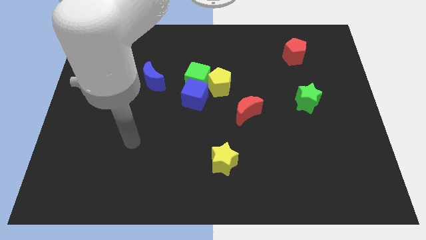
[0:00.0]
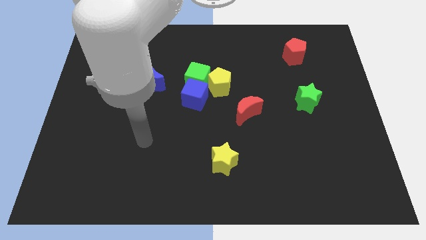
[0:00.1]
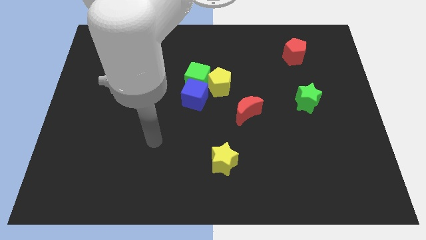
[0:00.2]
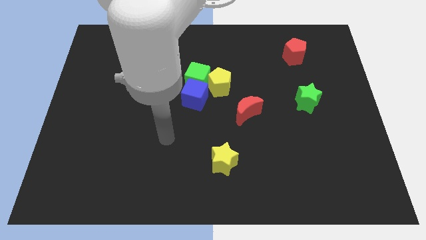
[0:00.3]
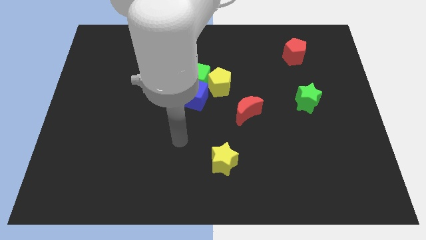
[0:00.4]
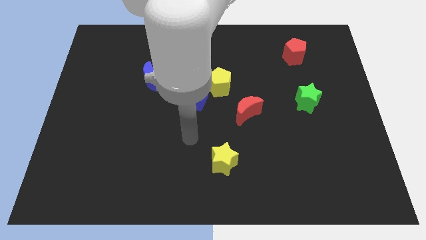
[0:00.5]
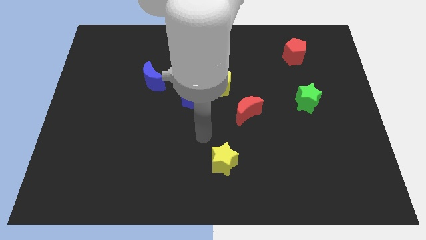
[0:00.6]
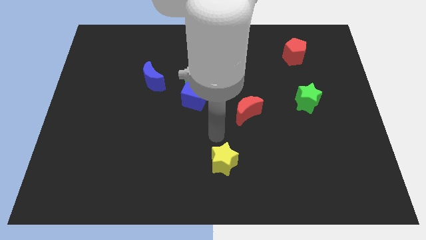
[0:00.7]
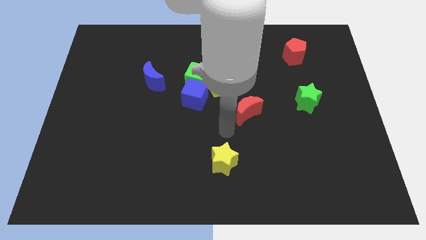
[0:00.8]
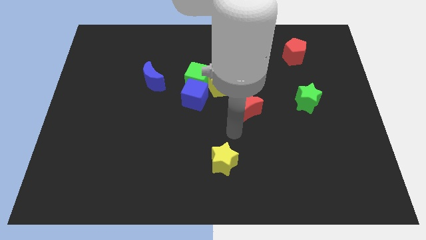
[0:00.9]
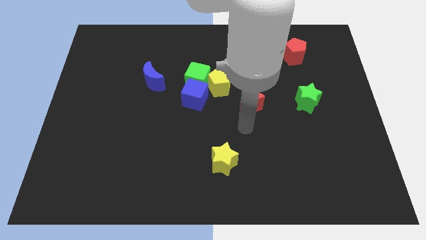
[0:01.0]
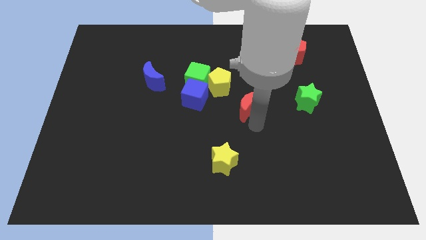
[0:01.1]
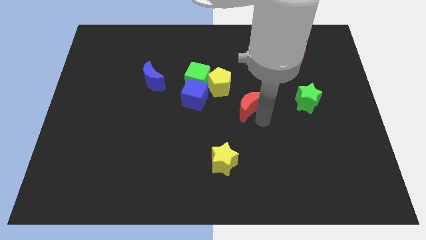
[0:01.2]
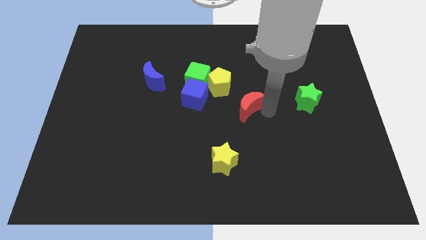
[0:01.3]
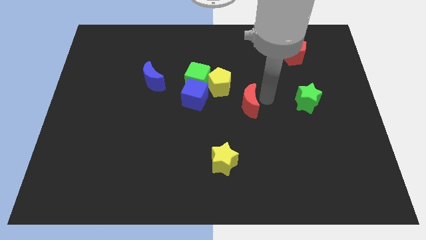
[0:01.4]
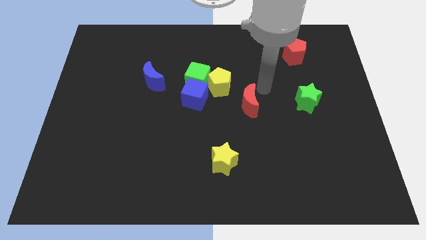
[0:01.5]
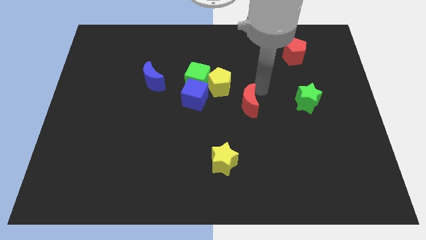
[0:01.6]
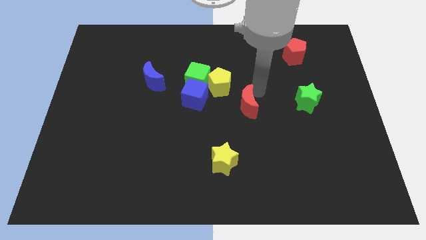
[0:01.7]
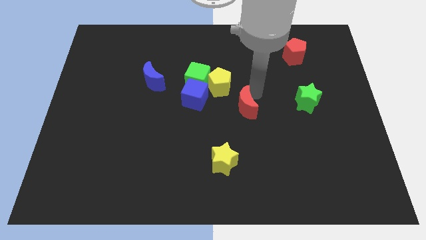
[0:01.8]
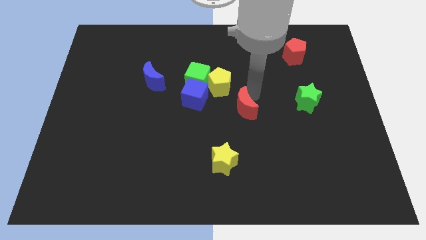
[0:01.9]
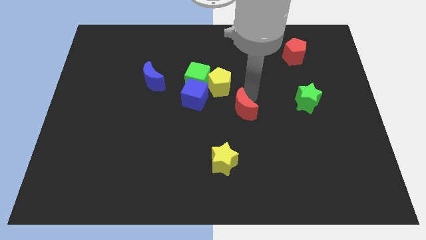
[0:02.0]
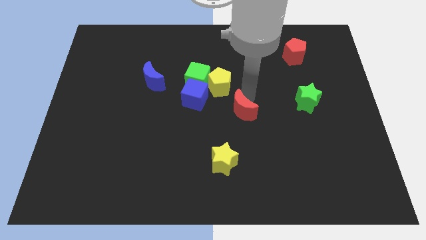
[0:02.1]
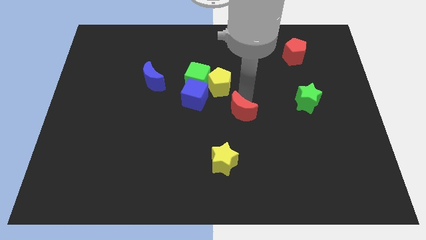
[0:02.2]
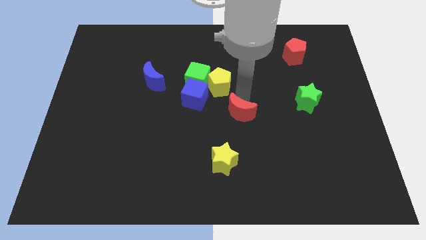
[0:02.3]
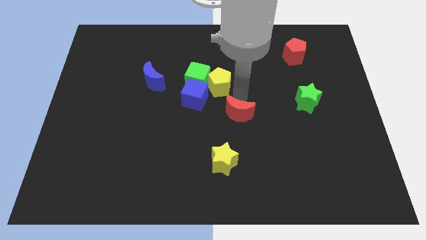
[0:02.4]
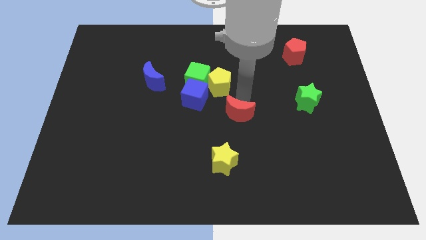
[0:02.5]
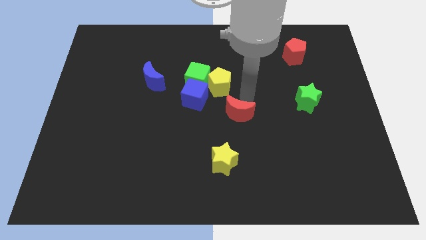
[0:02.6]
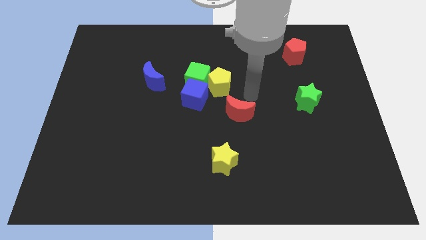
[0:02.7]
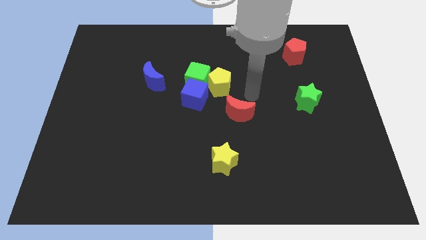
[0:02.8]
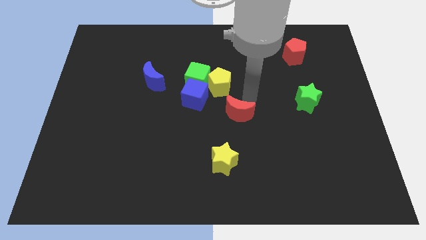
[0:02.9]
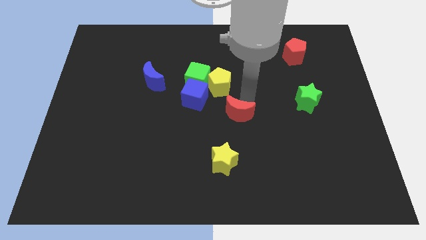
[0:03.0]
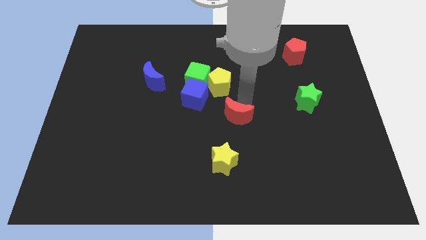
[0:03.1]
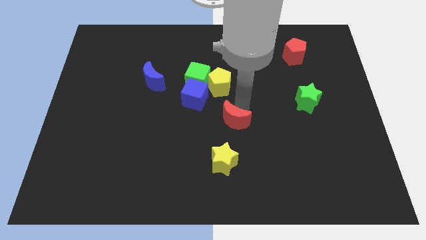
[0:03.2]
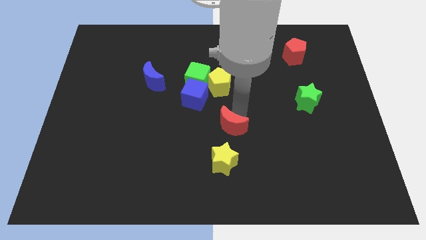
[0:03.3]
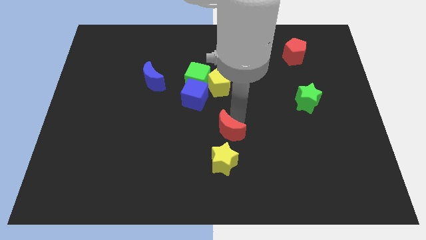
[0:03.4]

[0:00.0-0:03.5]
slide the red moon diagonally down and left a bit

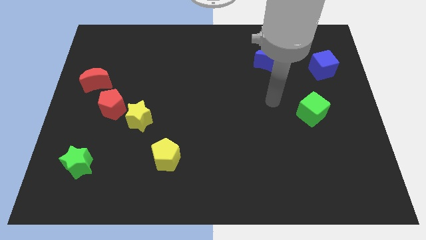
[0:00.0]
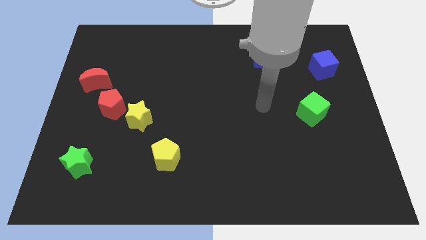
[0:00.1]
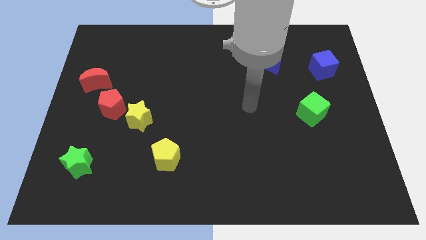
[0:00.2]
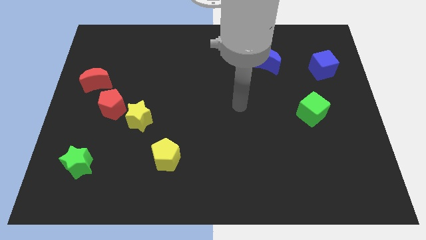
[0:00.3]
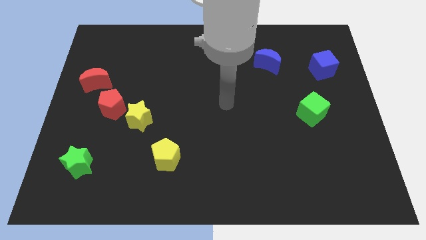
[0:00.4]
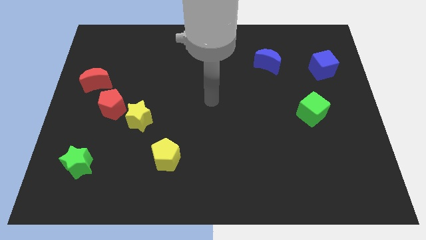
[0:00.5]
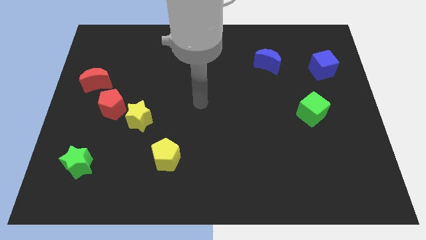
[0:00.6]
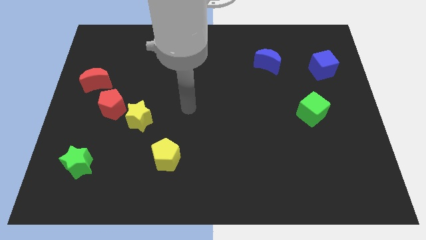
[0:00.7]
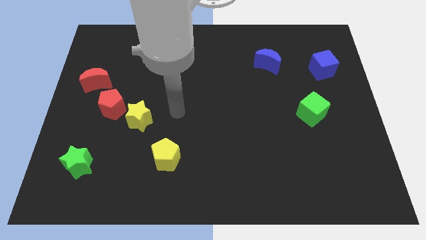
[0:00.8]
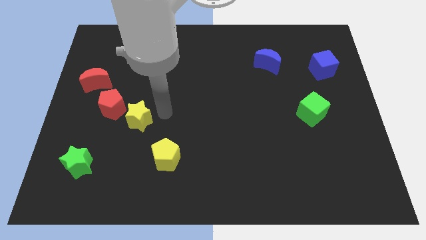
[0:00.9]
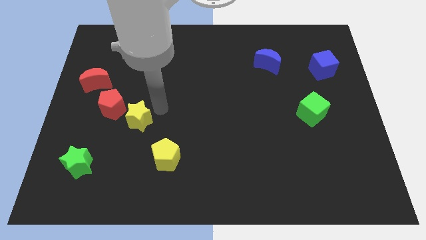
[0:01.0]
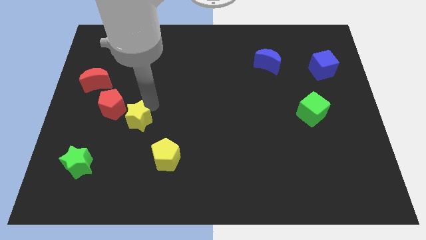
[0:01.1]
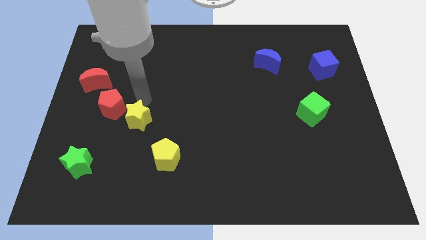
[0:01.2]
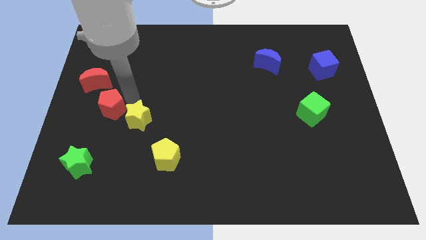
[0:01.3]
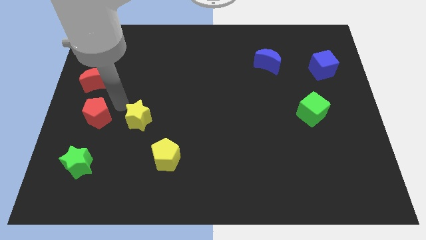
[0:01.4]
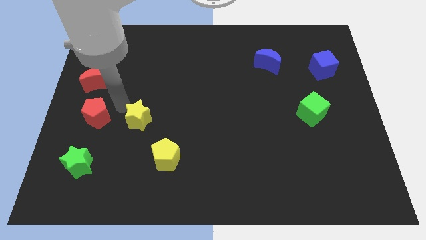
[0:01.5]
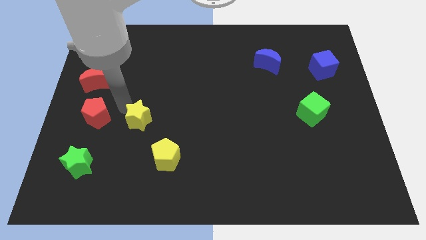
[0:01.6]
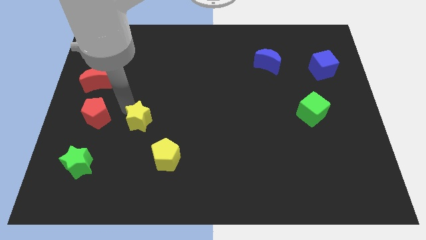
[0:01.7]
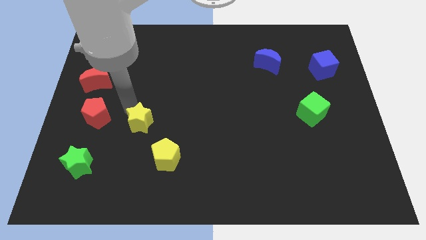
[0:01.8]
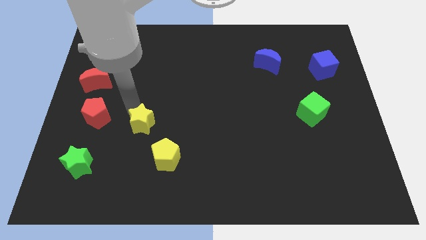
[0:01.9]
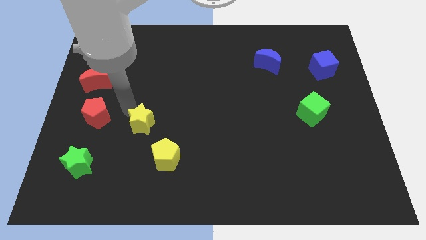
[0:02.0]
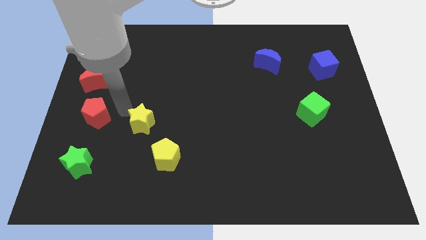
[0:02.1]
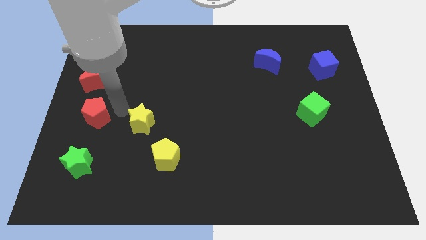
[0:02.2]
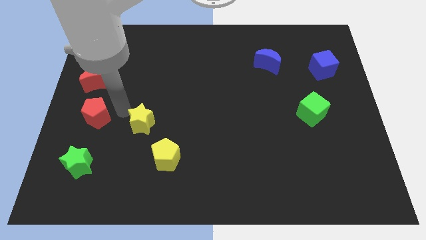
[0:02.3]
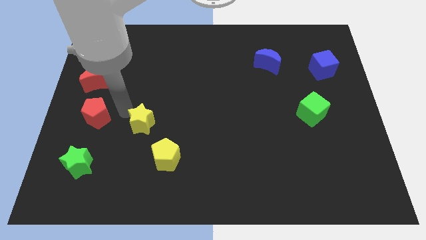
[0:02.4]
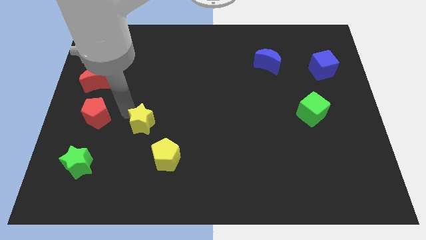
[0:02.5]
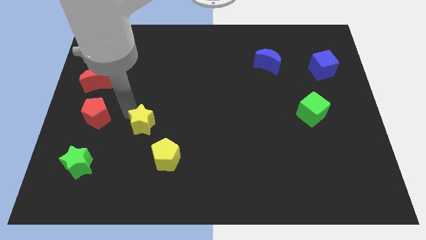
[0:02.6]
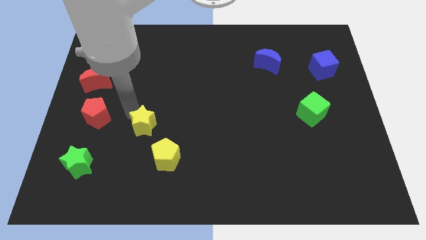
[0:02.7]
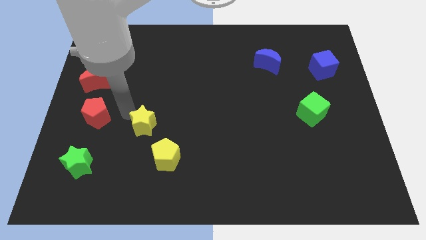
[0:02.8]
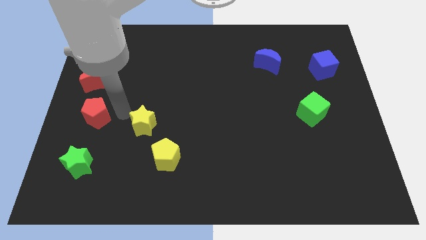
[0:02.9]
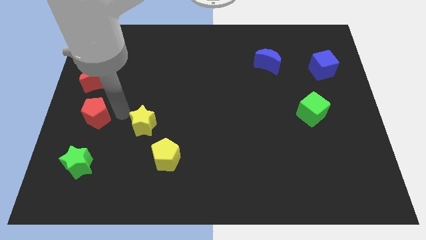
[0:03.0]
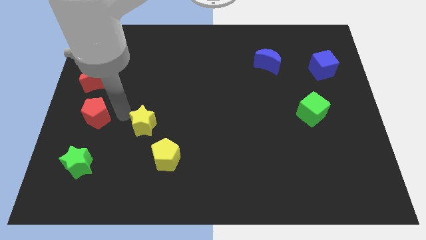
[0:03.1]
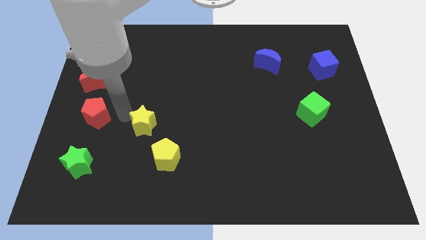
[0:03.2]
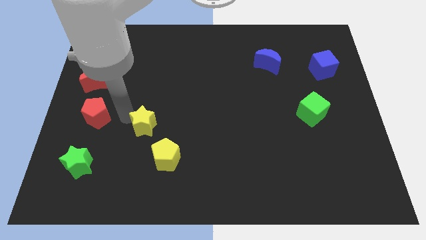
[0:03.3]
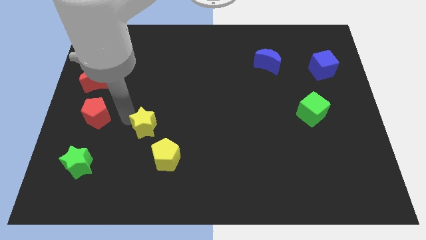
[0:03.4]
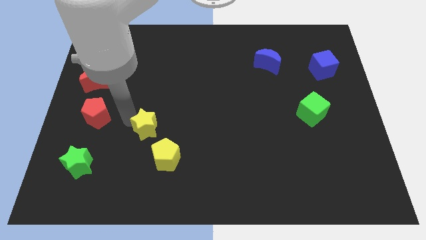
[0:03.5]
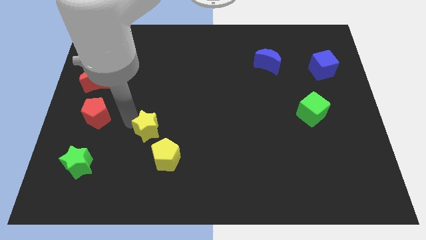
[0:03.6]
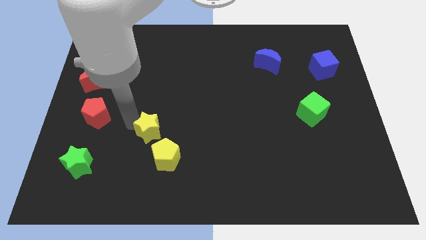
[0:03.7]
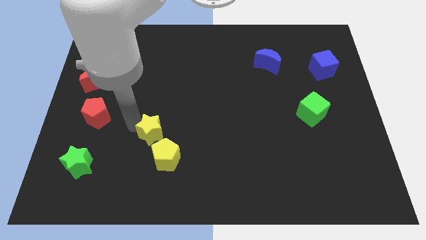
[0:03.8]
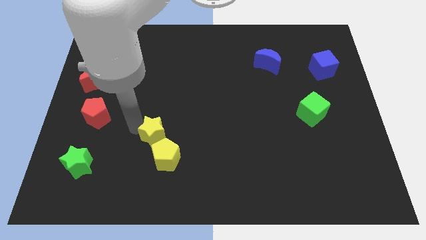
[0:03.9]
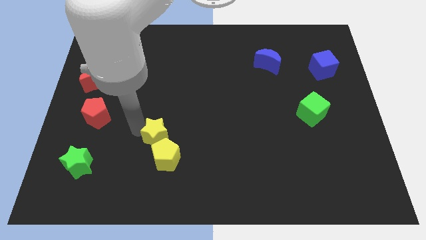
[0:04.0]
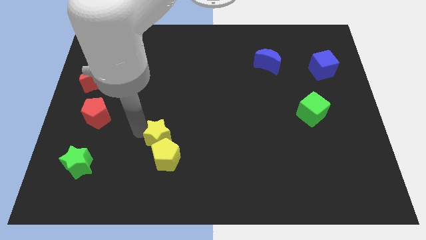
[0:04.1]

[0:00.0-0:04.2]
move the yellow star a little bit downwards and to the right

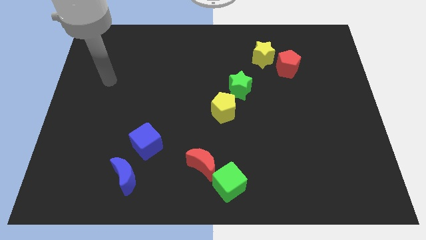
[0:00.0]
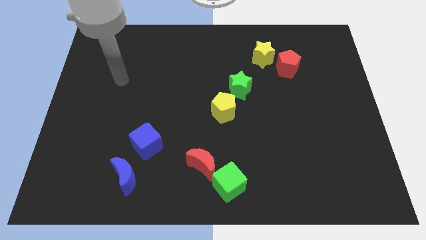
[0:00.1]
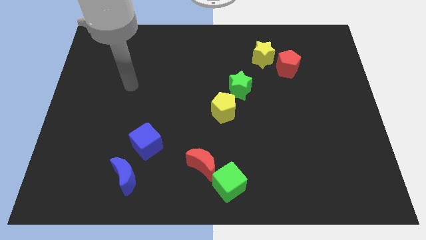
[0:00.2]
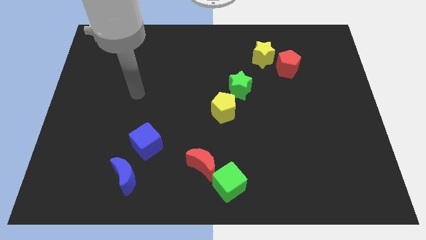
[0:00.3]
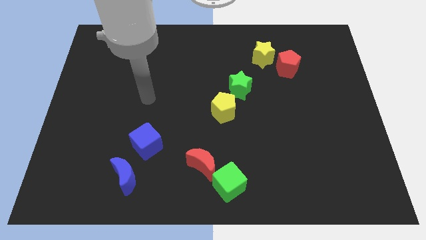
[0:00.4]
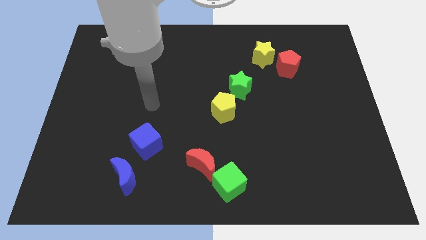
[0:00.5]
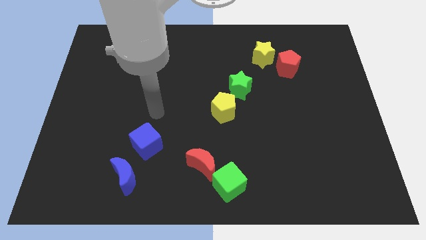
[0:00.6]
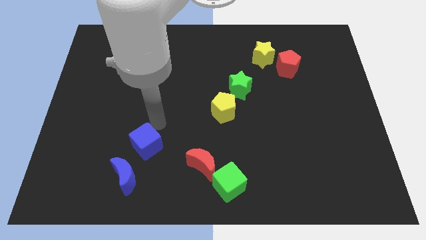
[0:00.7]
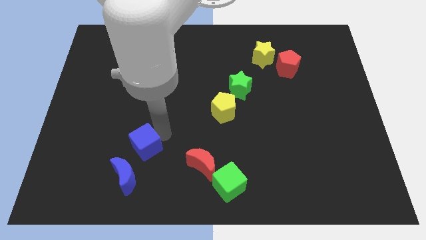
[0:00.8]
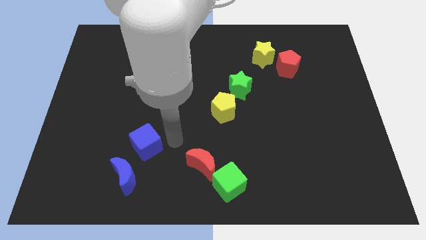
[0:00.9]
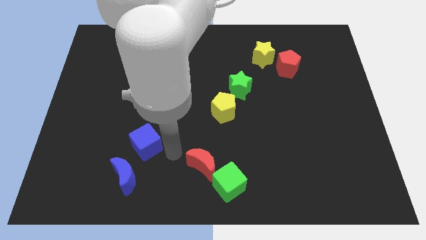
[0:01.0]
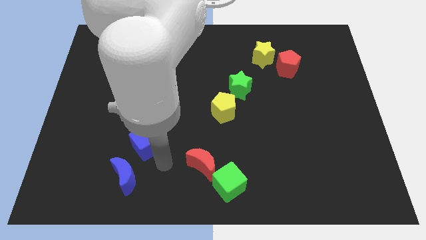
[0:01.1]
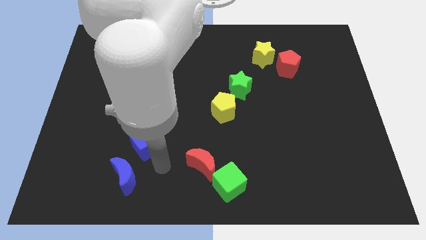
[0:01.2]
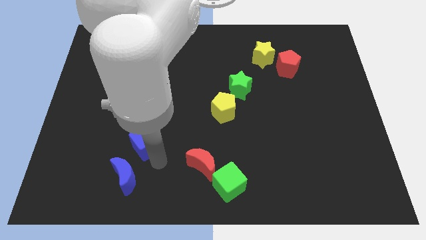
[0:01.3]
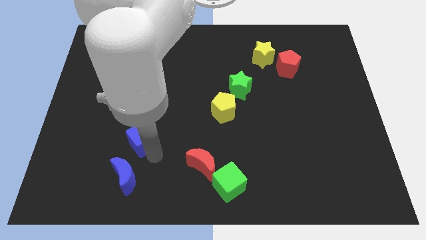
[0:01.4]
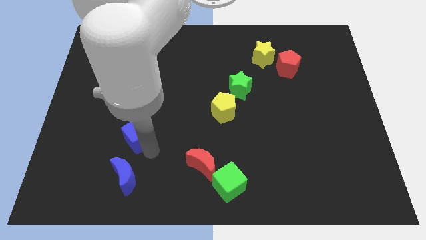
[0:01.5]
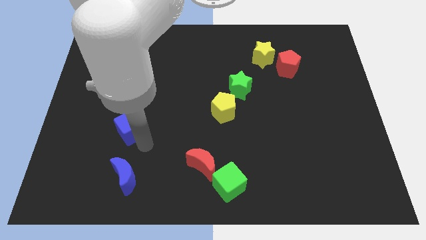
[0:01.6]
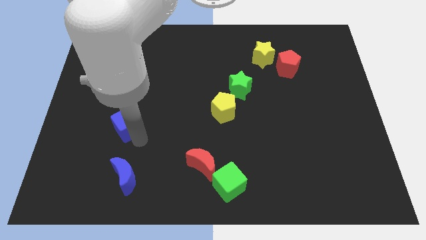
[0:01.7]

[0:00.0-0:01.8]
slightly move the blue cube up and to the left diagonally
